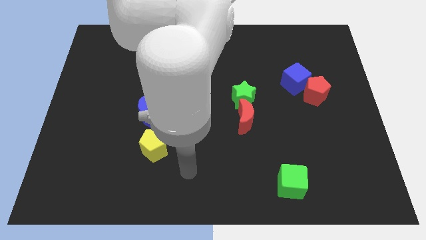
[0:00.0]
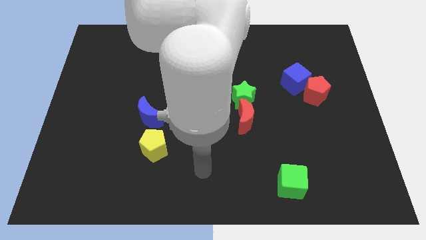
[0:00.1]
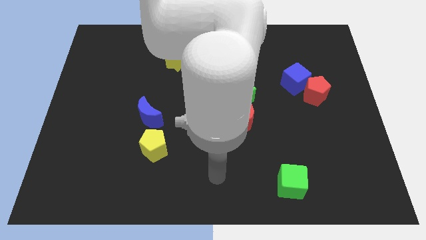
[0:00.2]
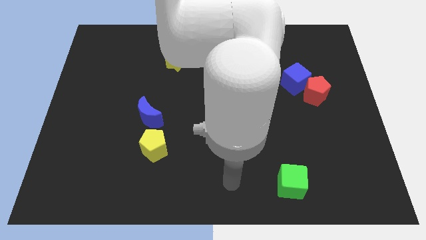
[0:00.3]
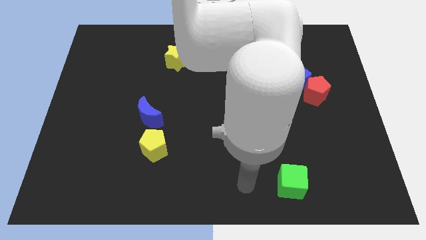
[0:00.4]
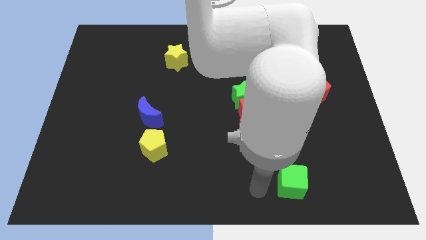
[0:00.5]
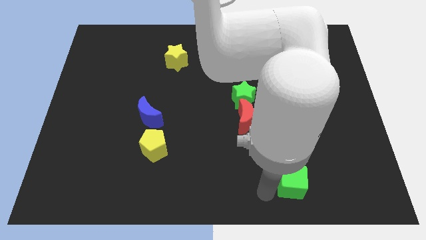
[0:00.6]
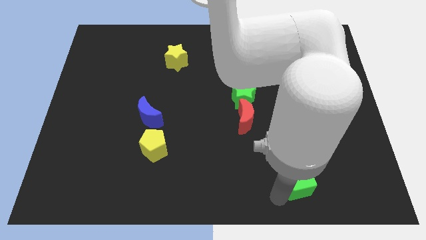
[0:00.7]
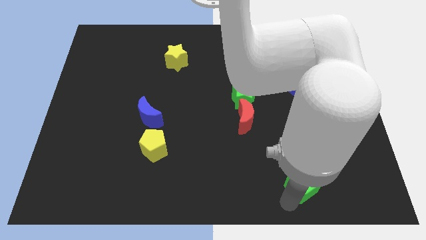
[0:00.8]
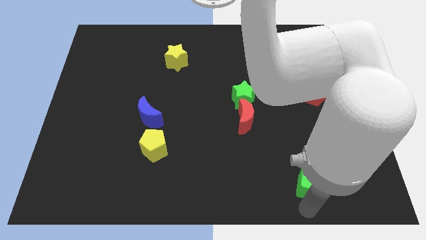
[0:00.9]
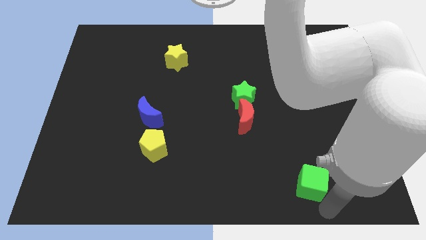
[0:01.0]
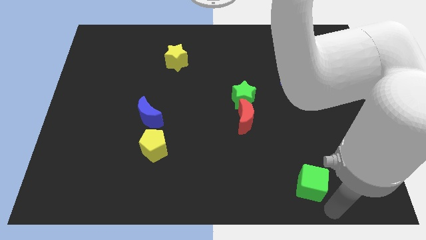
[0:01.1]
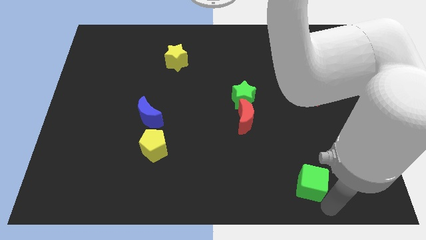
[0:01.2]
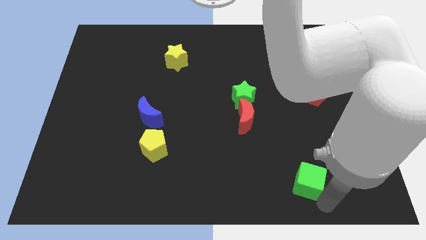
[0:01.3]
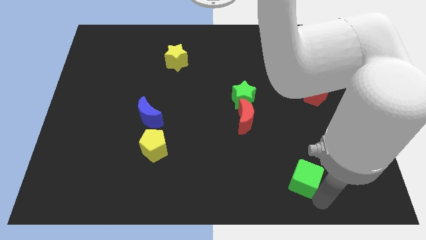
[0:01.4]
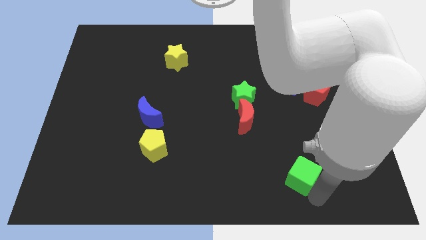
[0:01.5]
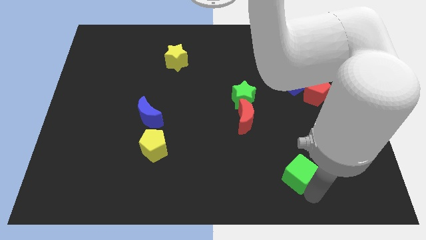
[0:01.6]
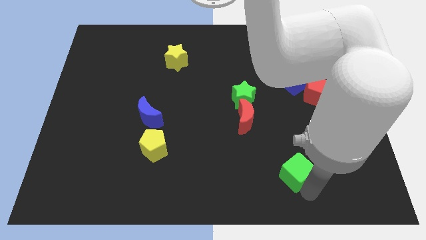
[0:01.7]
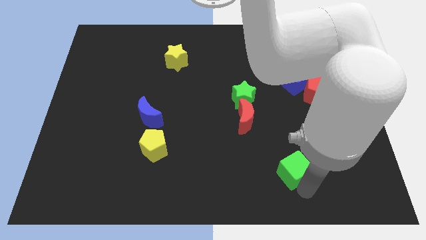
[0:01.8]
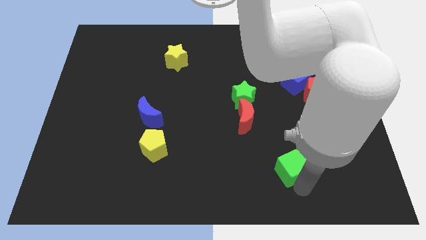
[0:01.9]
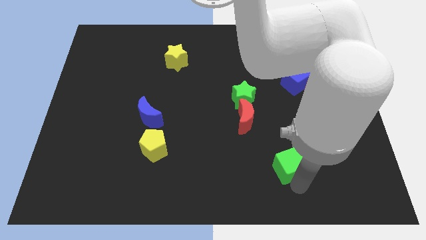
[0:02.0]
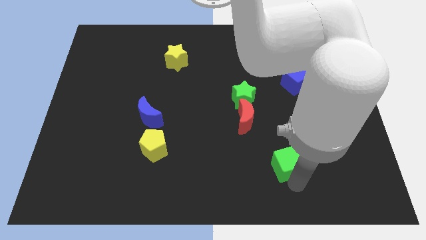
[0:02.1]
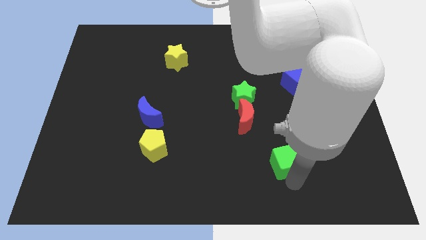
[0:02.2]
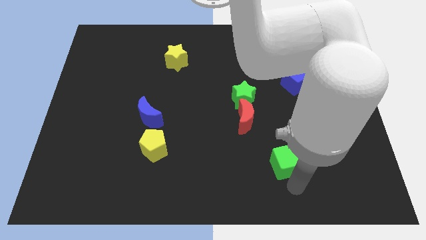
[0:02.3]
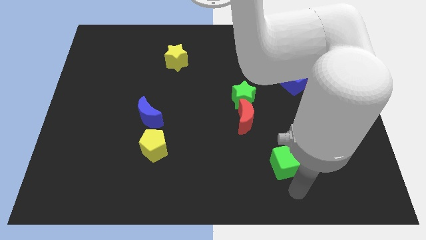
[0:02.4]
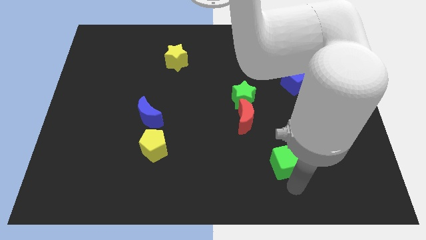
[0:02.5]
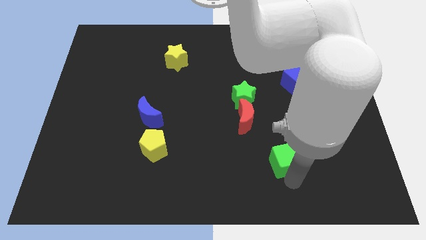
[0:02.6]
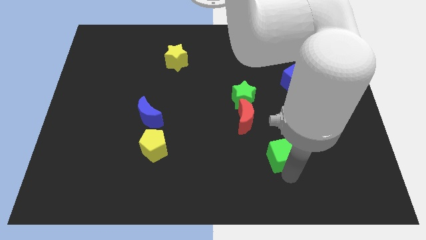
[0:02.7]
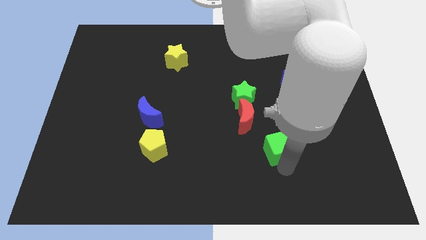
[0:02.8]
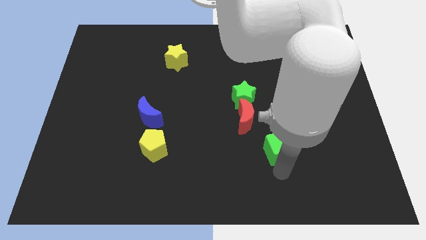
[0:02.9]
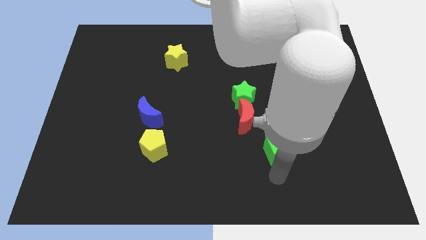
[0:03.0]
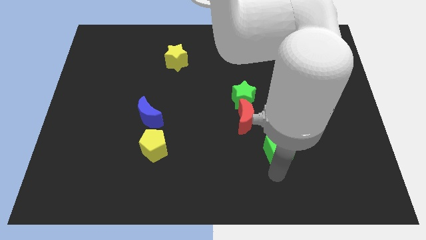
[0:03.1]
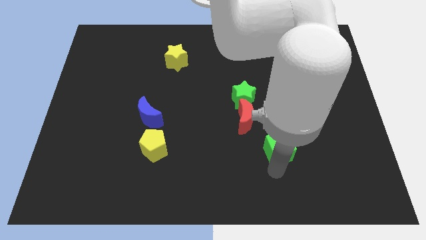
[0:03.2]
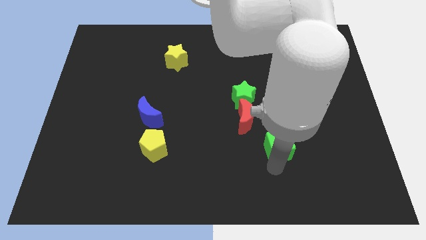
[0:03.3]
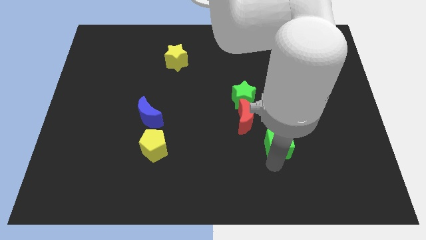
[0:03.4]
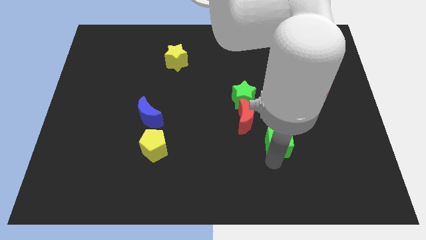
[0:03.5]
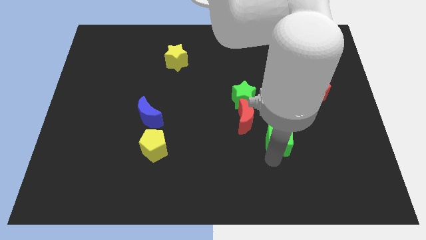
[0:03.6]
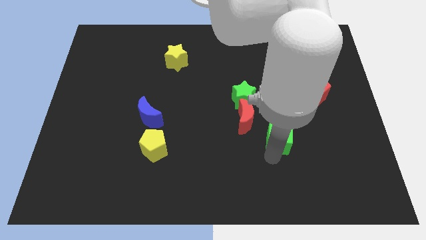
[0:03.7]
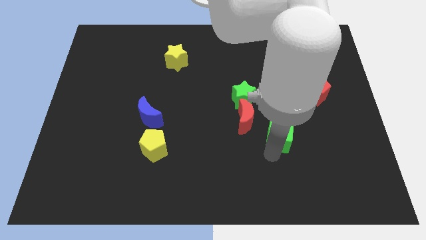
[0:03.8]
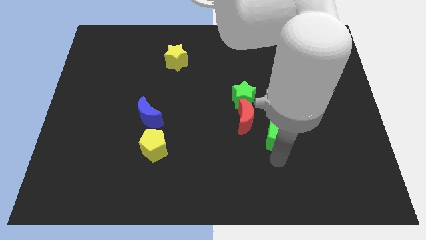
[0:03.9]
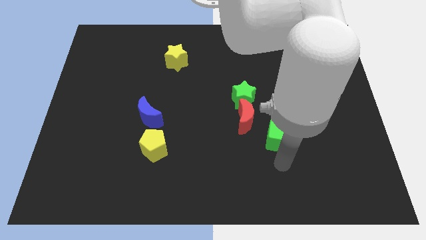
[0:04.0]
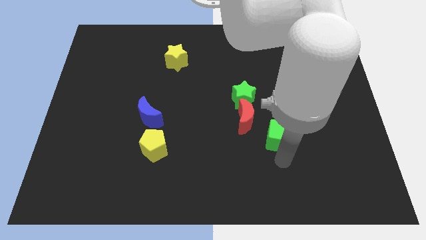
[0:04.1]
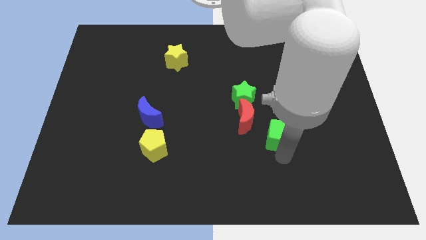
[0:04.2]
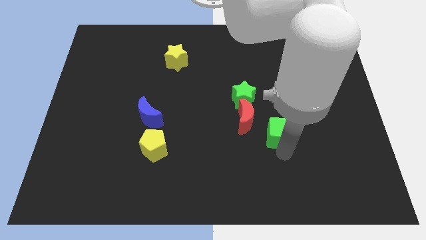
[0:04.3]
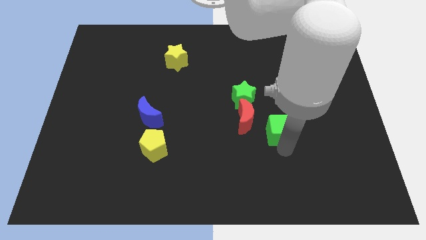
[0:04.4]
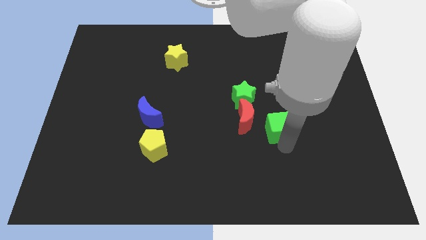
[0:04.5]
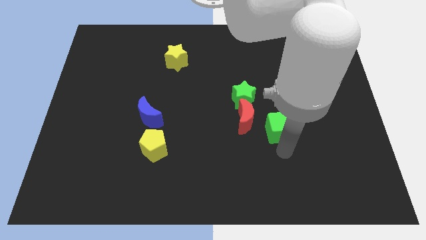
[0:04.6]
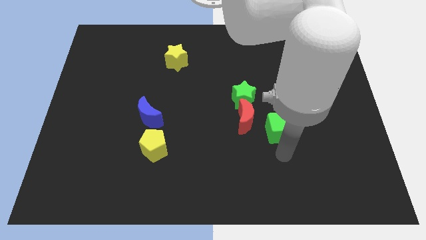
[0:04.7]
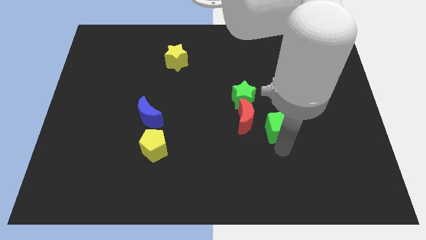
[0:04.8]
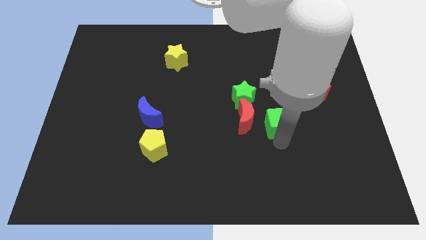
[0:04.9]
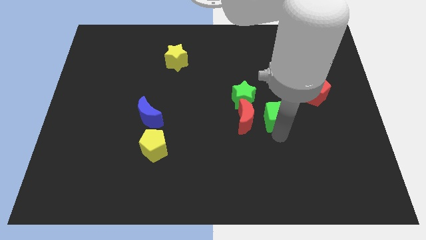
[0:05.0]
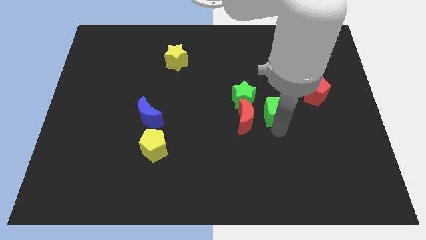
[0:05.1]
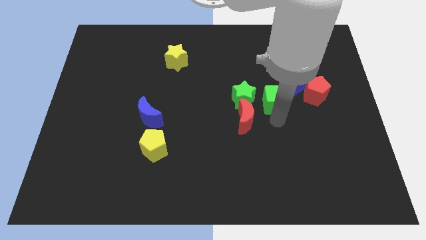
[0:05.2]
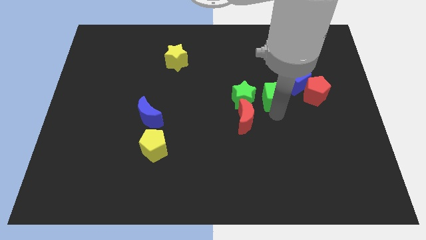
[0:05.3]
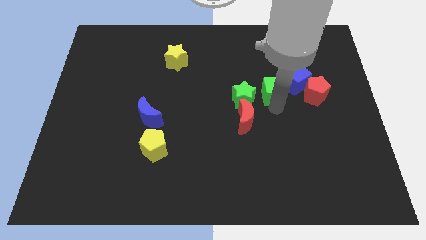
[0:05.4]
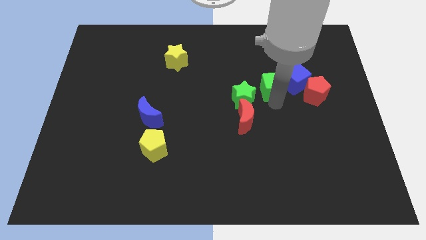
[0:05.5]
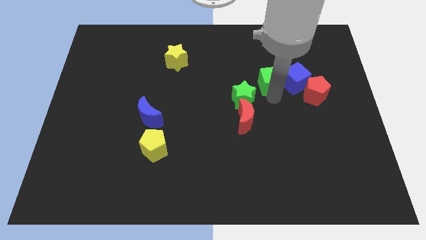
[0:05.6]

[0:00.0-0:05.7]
put the green cube diagonally up and to the left of the blue cube

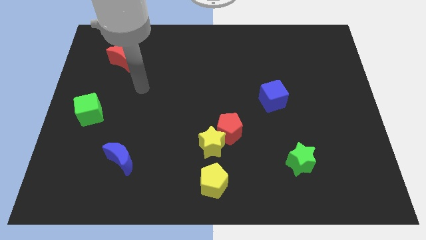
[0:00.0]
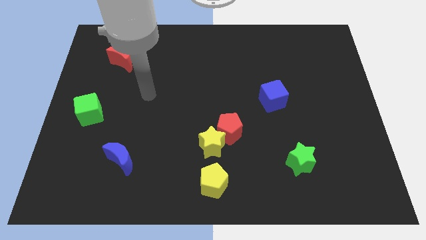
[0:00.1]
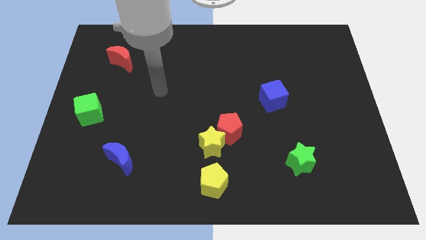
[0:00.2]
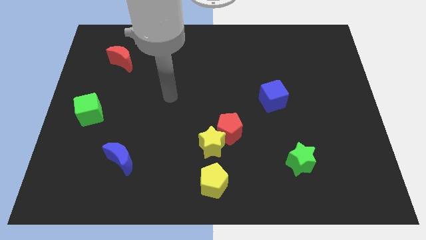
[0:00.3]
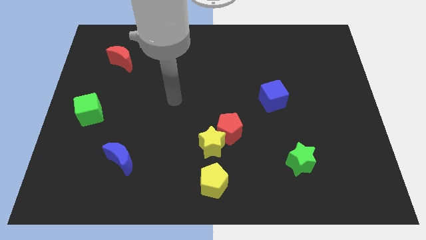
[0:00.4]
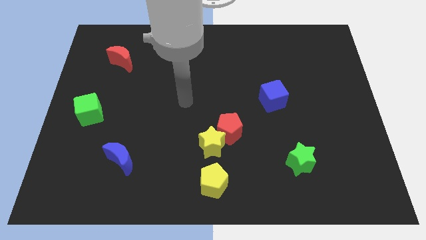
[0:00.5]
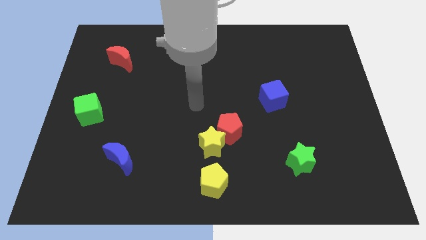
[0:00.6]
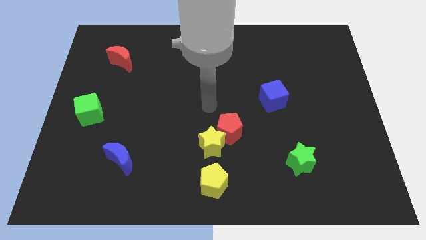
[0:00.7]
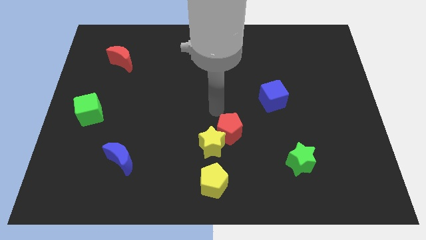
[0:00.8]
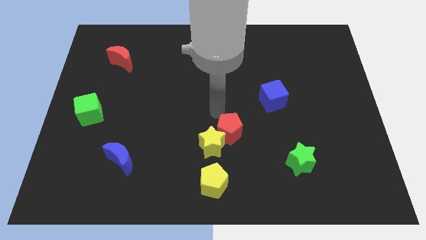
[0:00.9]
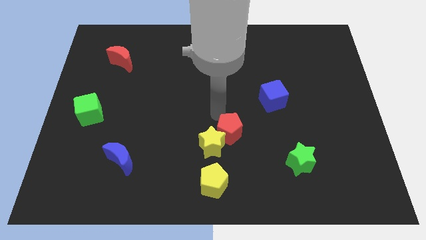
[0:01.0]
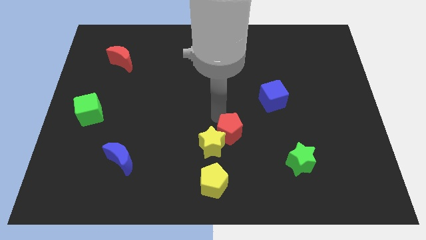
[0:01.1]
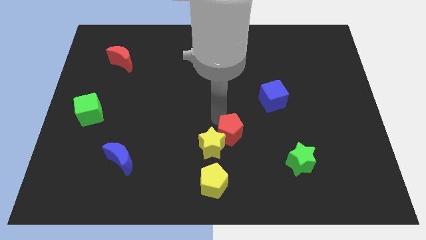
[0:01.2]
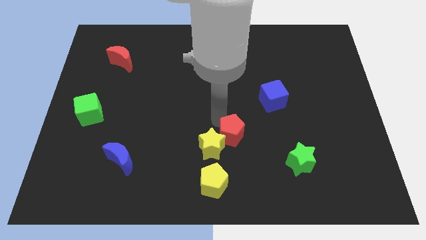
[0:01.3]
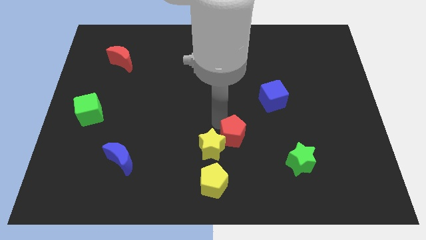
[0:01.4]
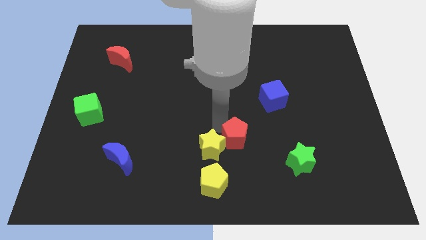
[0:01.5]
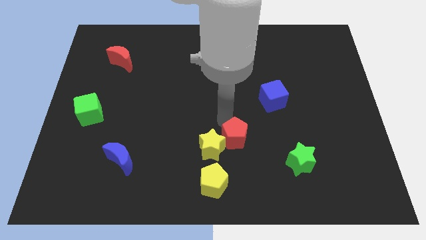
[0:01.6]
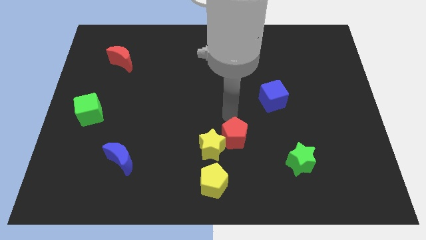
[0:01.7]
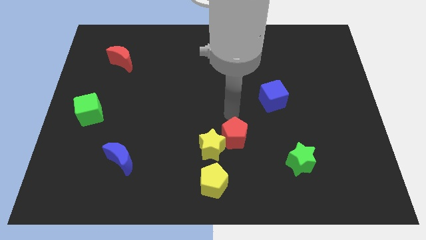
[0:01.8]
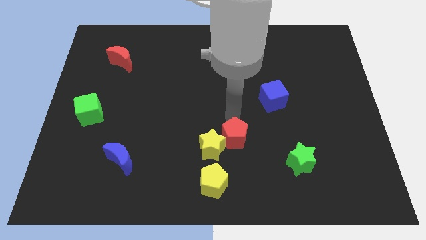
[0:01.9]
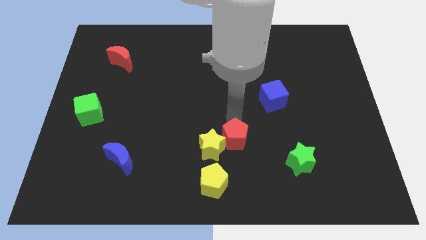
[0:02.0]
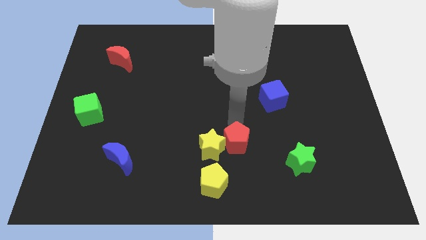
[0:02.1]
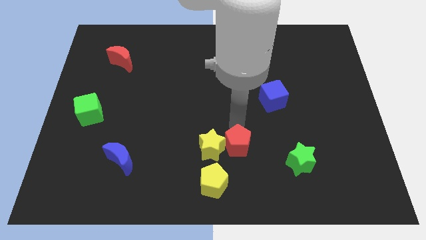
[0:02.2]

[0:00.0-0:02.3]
move the red pentagon to the bottom right side of the yellow star
